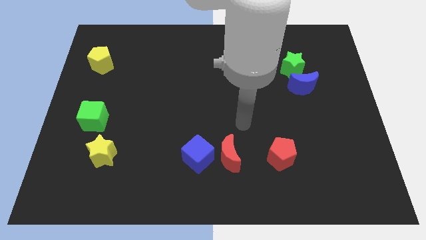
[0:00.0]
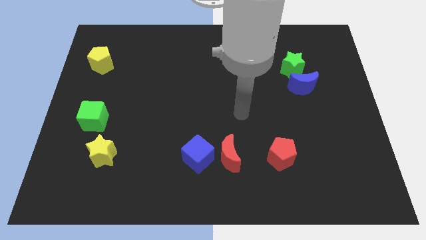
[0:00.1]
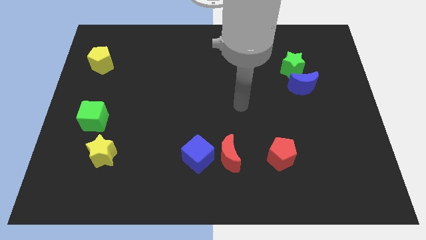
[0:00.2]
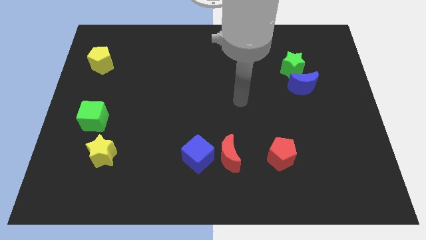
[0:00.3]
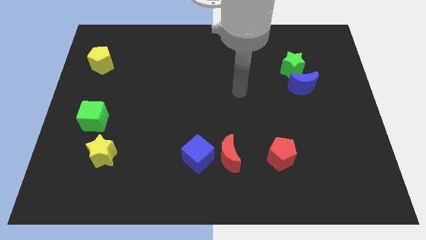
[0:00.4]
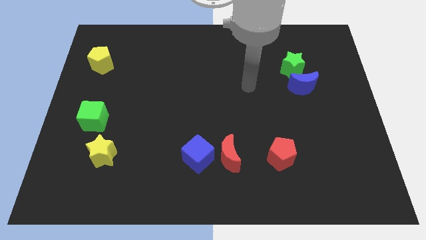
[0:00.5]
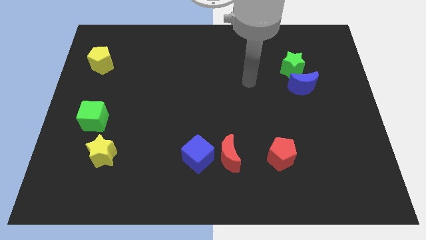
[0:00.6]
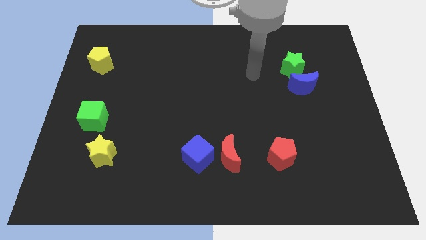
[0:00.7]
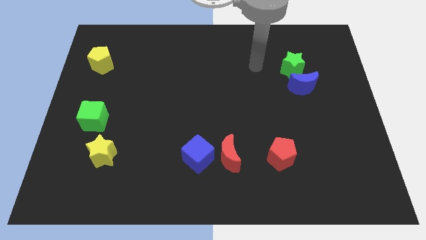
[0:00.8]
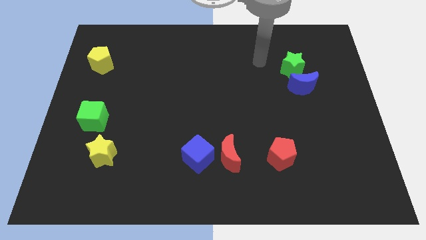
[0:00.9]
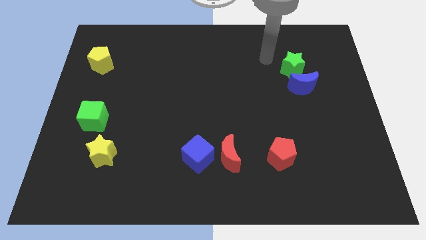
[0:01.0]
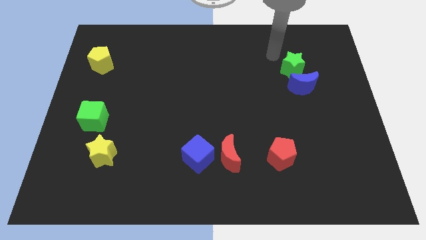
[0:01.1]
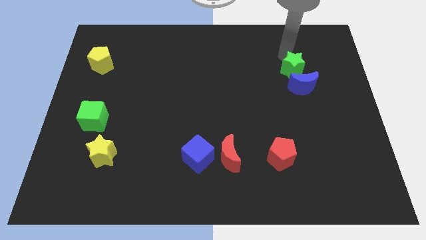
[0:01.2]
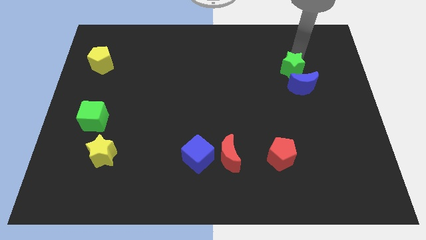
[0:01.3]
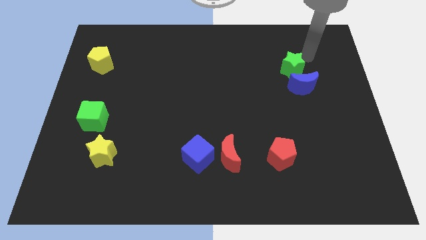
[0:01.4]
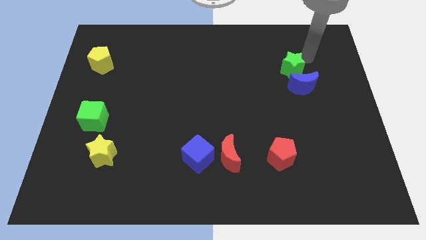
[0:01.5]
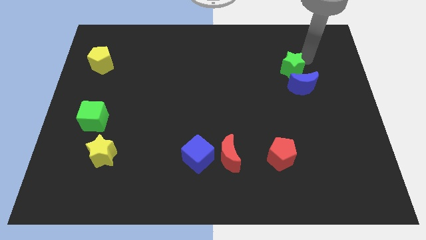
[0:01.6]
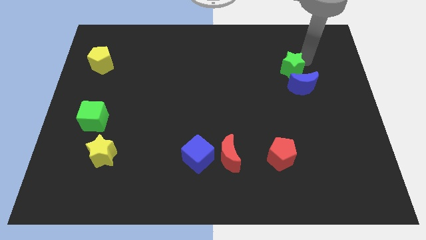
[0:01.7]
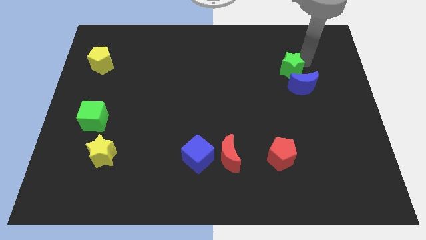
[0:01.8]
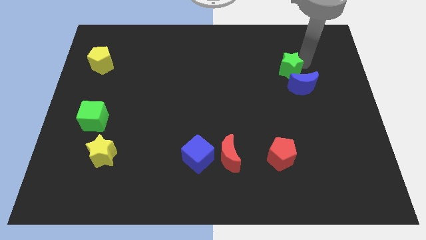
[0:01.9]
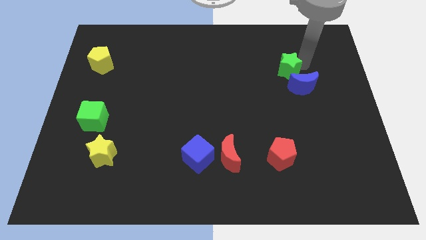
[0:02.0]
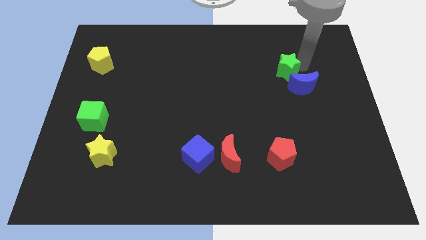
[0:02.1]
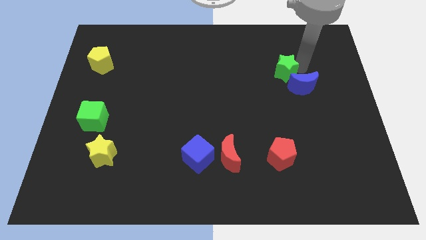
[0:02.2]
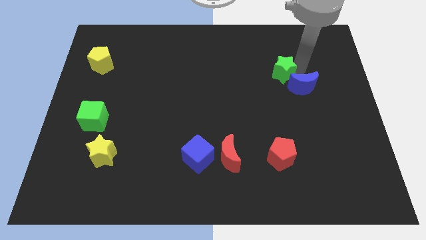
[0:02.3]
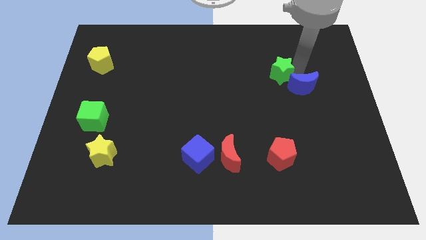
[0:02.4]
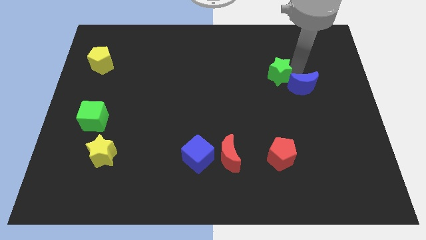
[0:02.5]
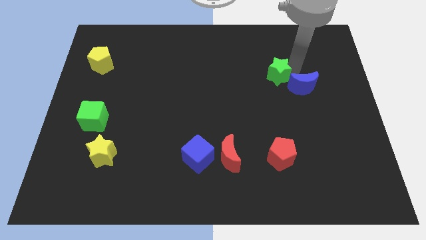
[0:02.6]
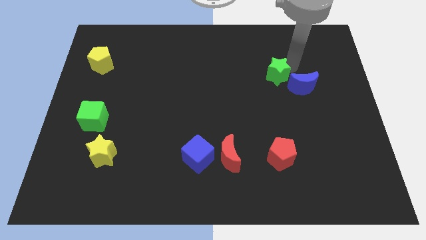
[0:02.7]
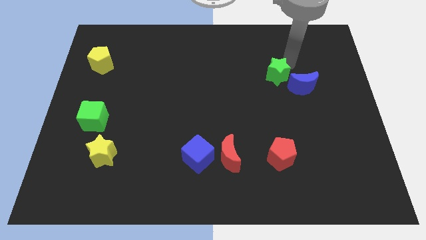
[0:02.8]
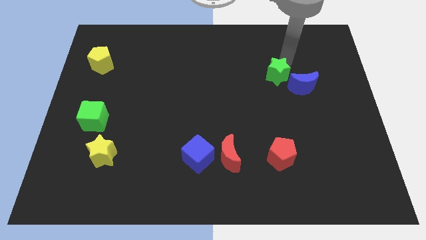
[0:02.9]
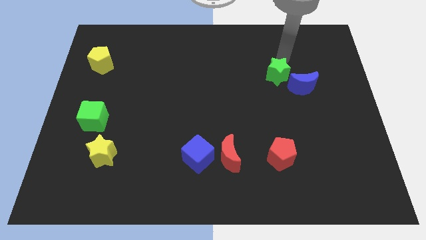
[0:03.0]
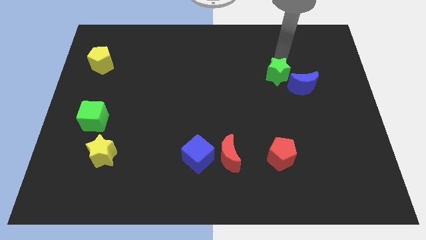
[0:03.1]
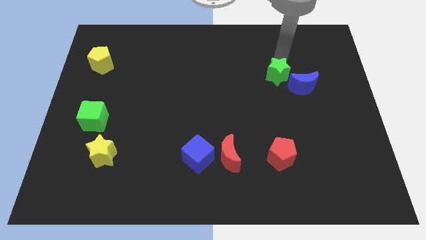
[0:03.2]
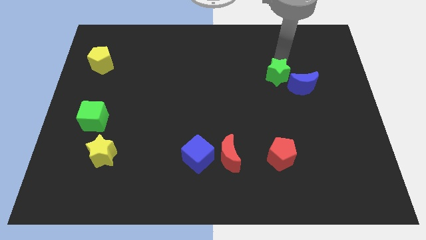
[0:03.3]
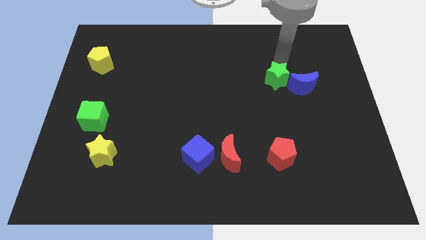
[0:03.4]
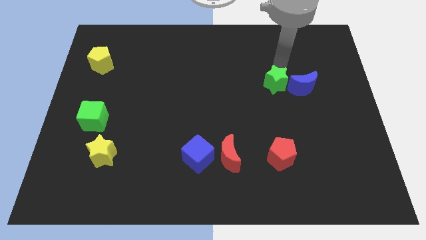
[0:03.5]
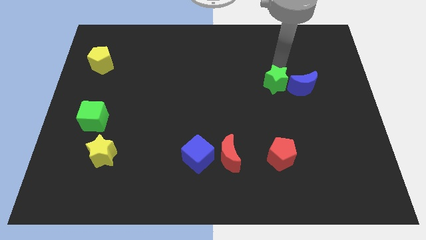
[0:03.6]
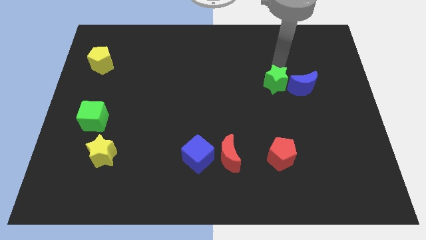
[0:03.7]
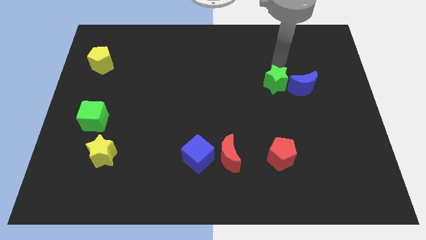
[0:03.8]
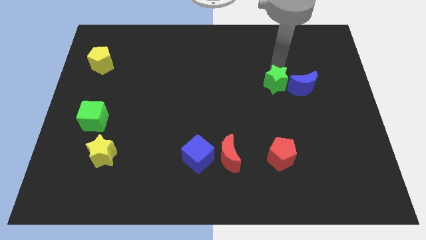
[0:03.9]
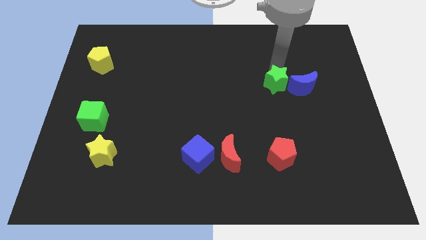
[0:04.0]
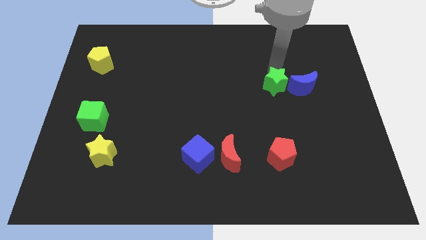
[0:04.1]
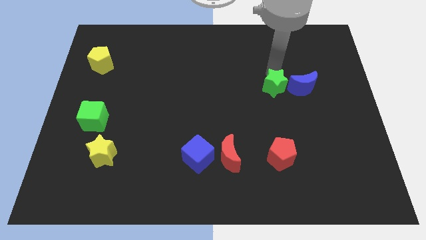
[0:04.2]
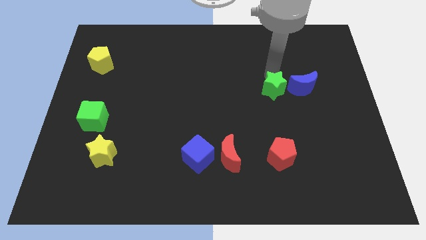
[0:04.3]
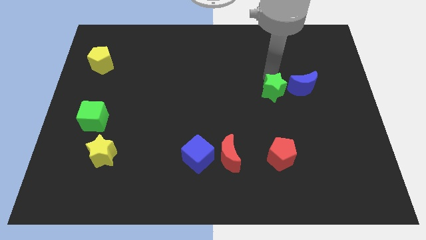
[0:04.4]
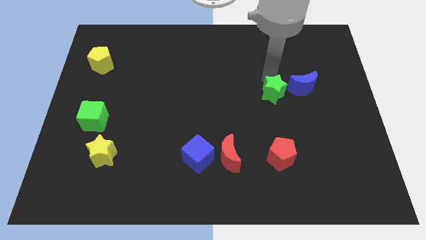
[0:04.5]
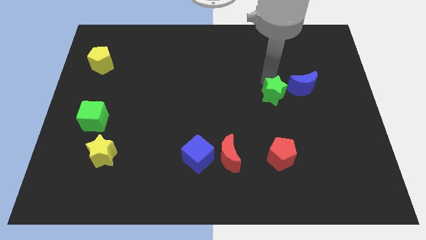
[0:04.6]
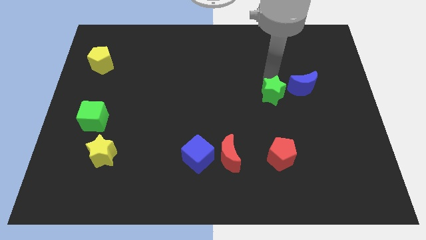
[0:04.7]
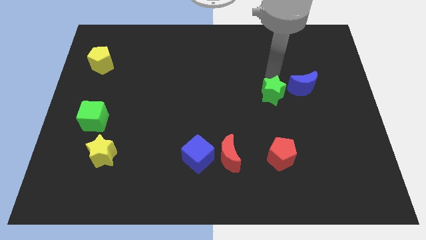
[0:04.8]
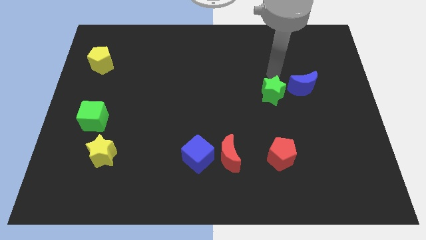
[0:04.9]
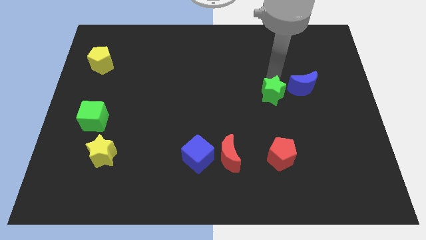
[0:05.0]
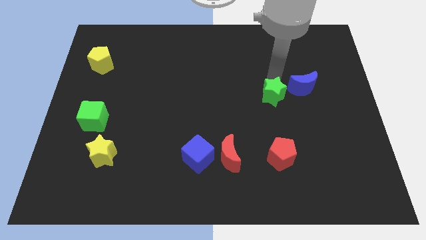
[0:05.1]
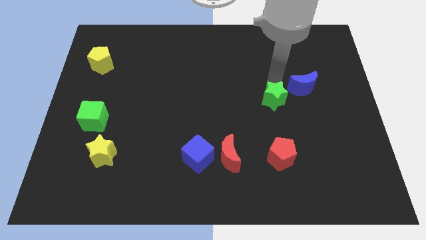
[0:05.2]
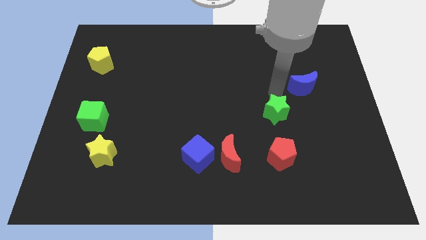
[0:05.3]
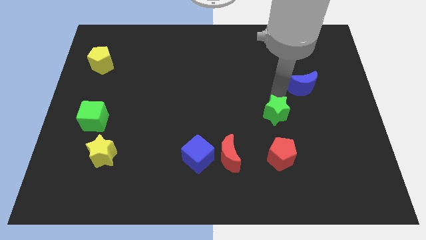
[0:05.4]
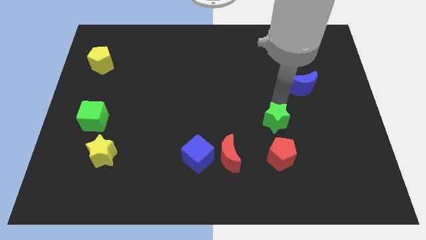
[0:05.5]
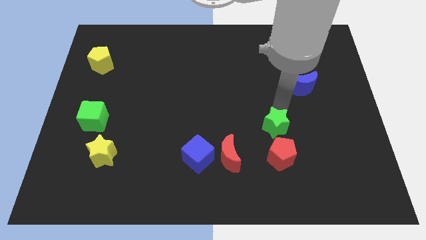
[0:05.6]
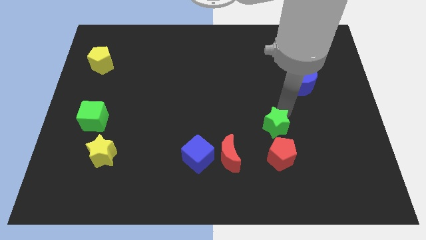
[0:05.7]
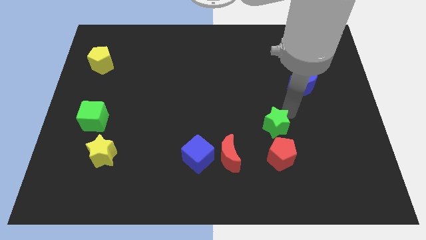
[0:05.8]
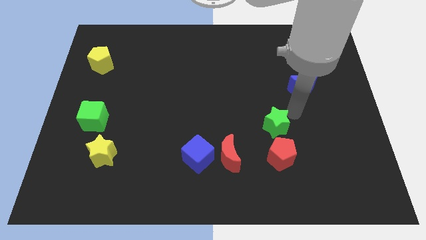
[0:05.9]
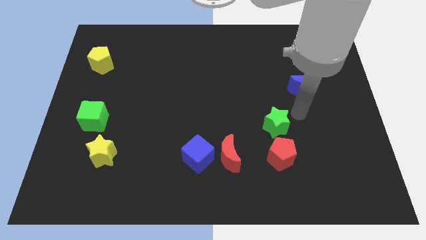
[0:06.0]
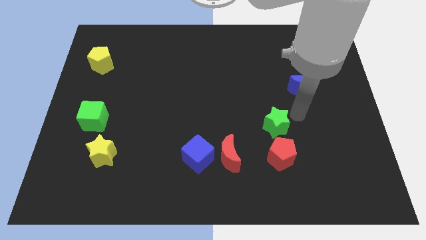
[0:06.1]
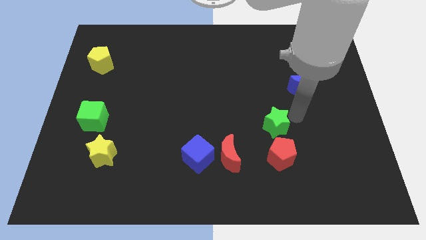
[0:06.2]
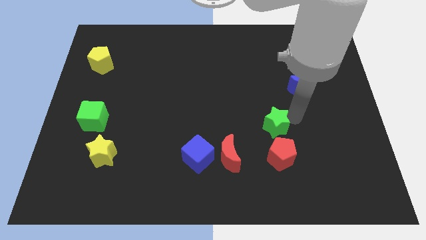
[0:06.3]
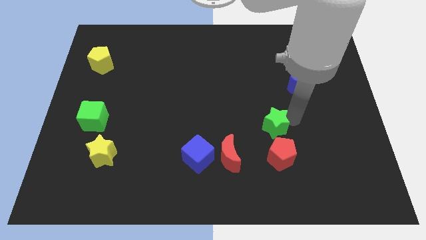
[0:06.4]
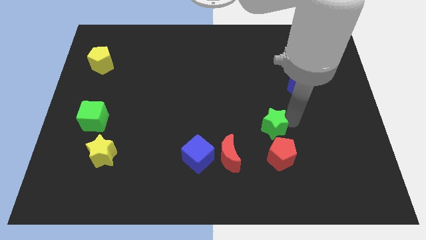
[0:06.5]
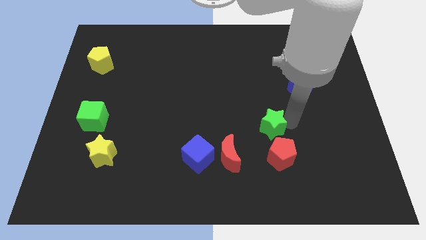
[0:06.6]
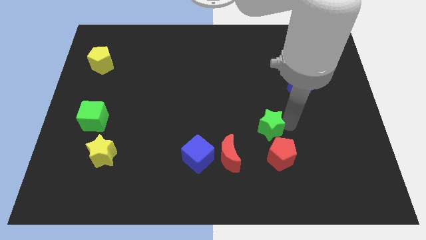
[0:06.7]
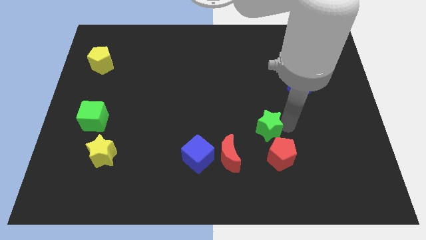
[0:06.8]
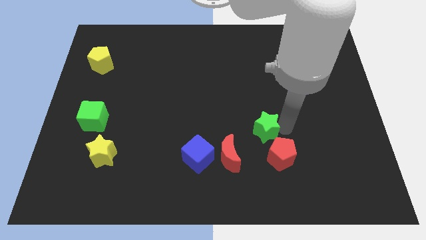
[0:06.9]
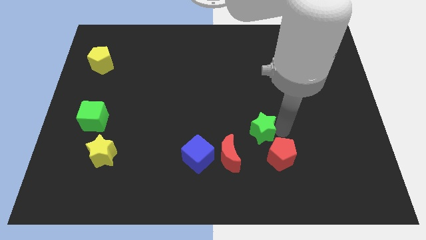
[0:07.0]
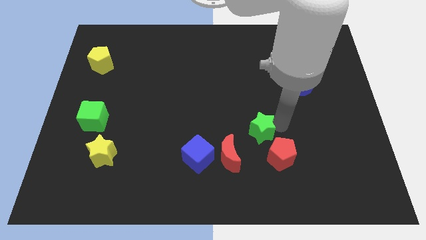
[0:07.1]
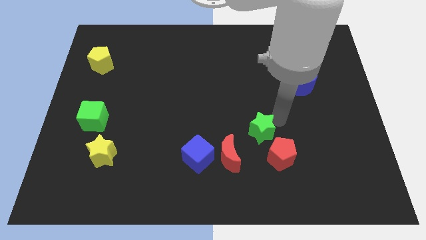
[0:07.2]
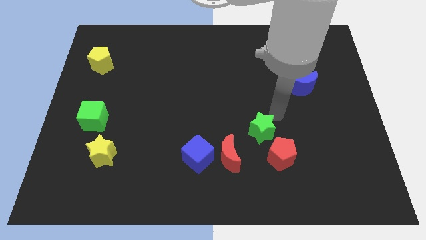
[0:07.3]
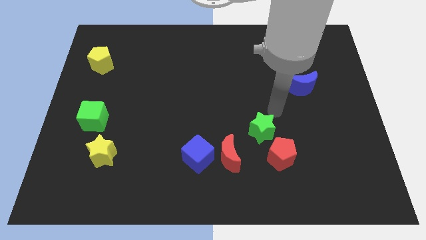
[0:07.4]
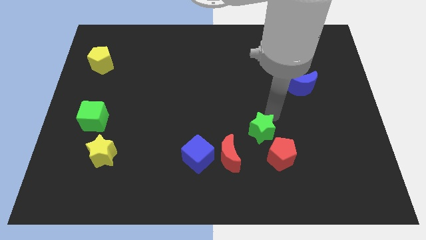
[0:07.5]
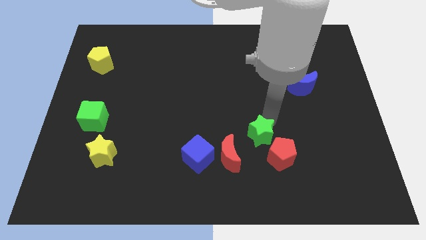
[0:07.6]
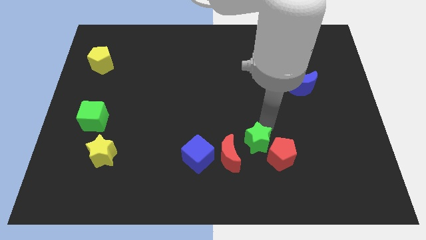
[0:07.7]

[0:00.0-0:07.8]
slide the green star to the right of the blue cube
